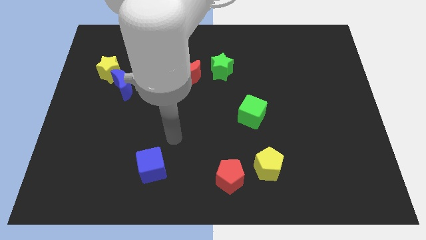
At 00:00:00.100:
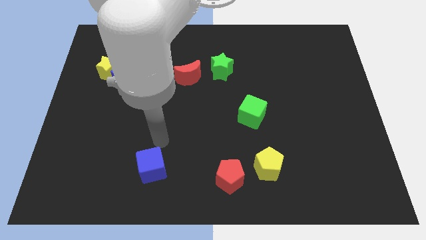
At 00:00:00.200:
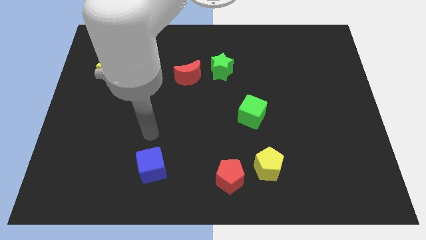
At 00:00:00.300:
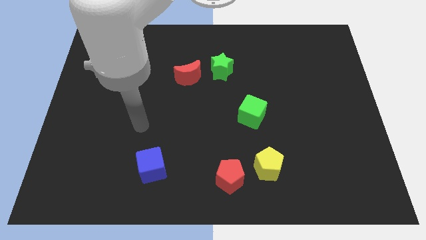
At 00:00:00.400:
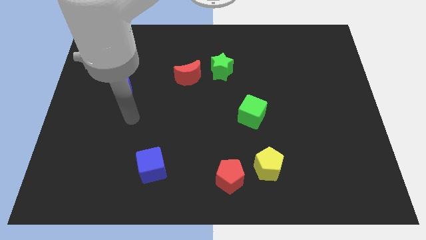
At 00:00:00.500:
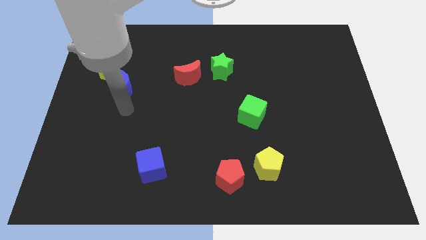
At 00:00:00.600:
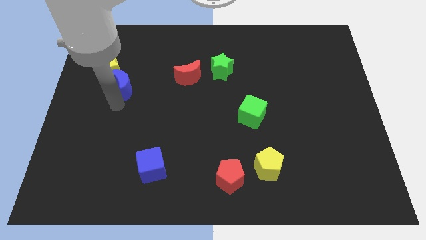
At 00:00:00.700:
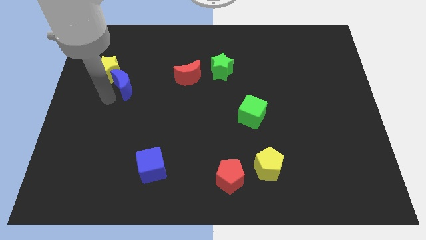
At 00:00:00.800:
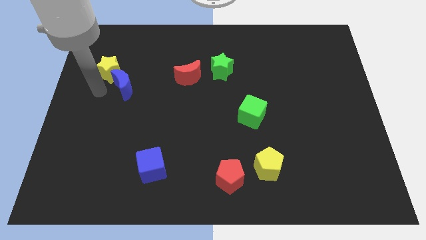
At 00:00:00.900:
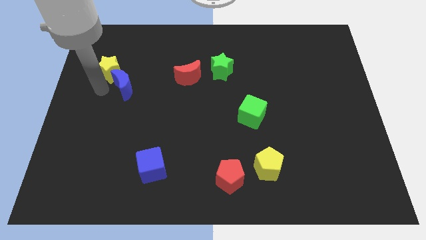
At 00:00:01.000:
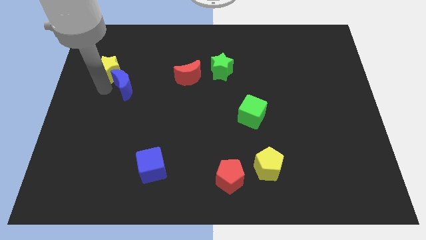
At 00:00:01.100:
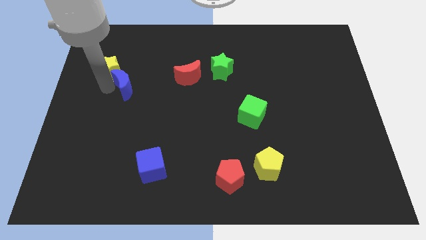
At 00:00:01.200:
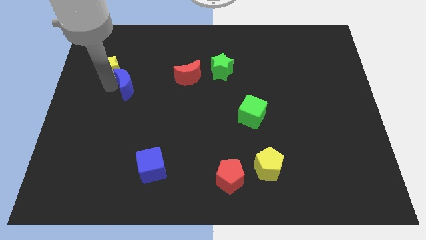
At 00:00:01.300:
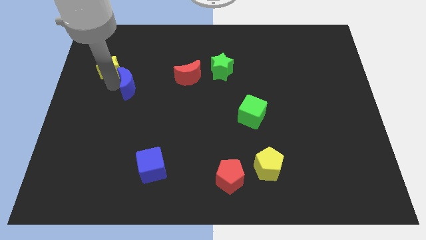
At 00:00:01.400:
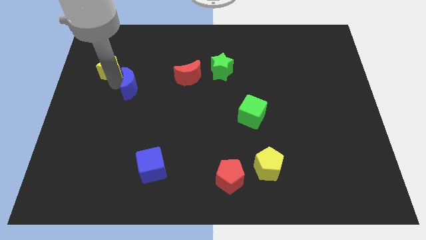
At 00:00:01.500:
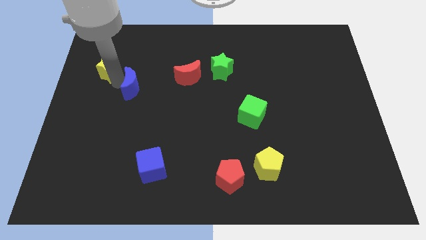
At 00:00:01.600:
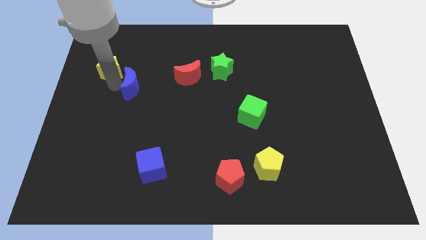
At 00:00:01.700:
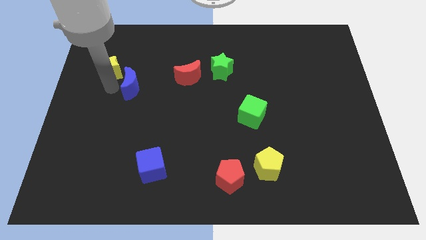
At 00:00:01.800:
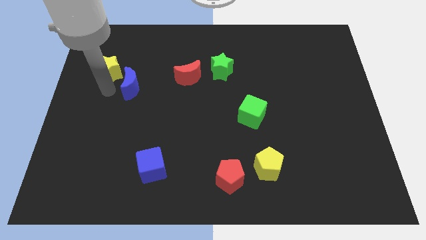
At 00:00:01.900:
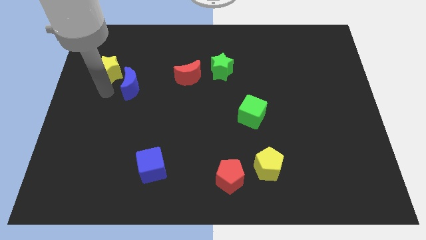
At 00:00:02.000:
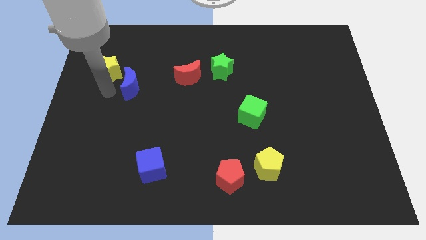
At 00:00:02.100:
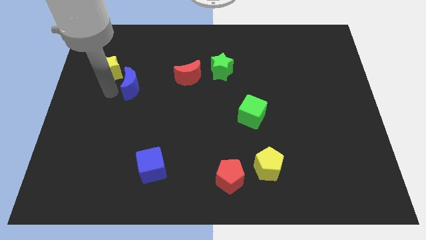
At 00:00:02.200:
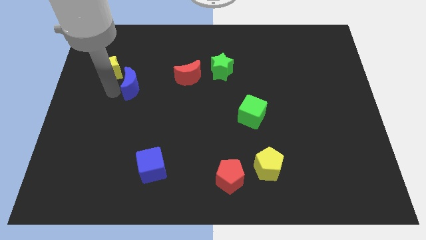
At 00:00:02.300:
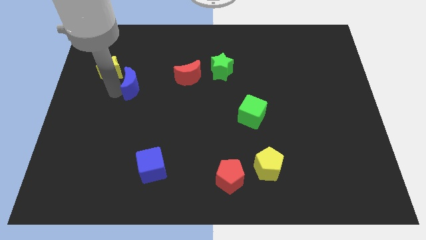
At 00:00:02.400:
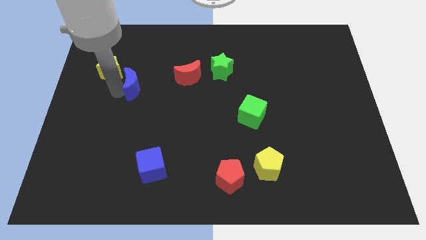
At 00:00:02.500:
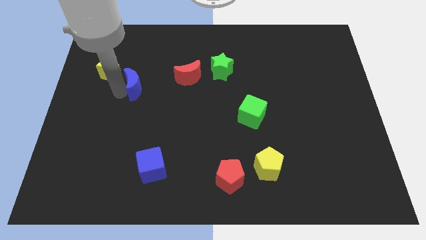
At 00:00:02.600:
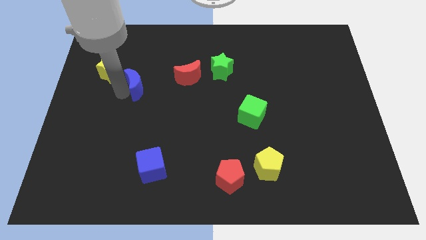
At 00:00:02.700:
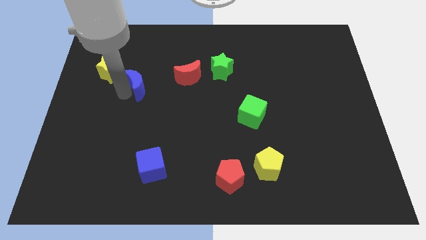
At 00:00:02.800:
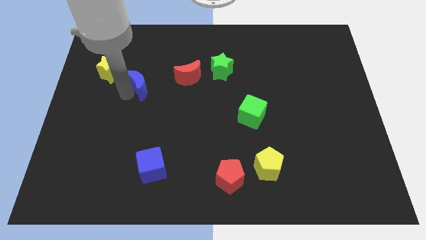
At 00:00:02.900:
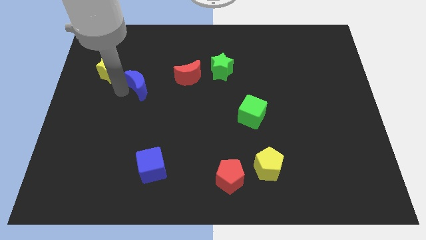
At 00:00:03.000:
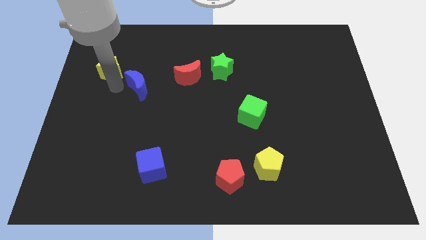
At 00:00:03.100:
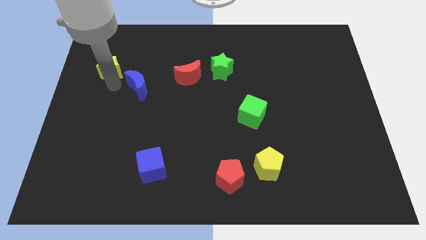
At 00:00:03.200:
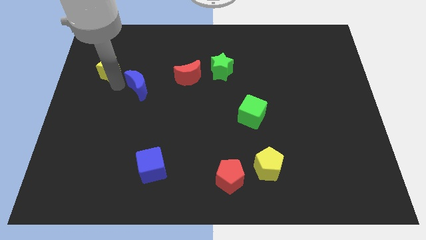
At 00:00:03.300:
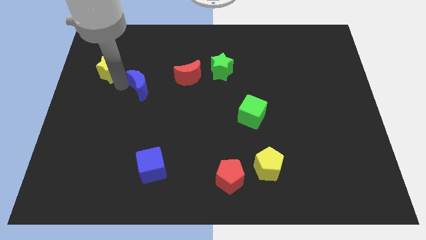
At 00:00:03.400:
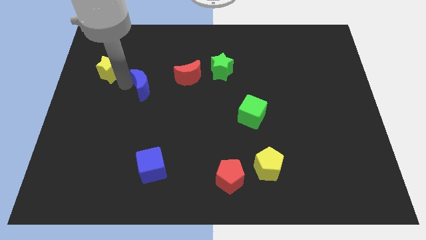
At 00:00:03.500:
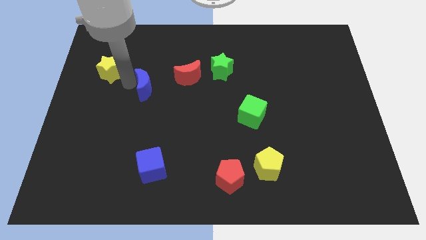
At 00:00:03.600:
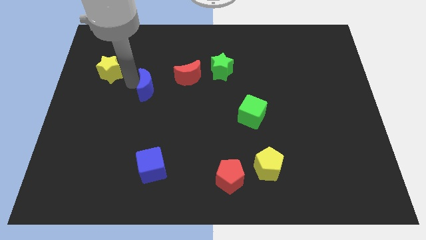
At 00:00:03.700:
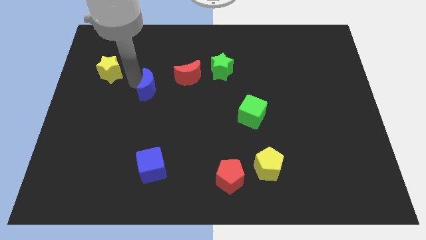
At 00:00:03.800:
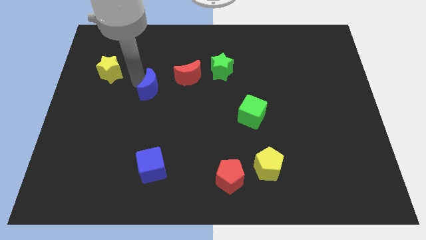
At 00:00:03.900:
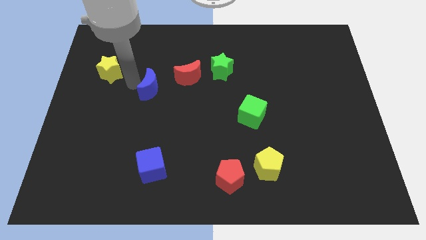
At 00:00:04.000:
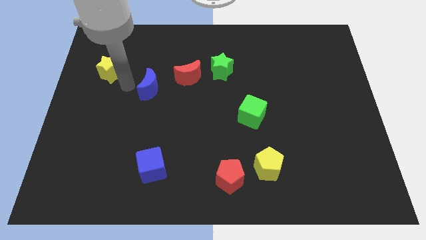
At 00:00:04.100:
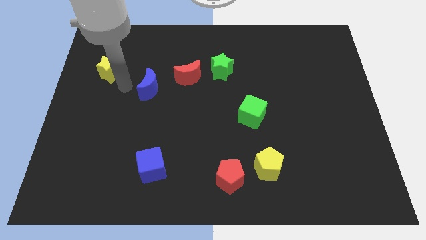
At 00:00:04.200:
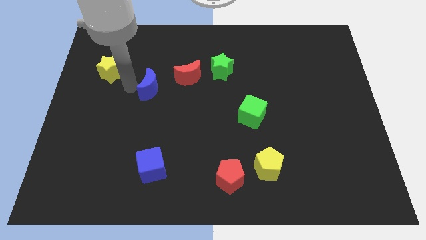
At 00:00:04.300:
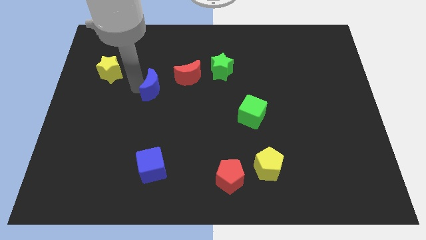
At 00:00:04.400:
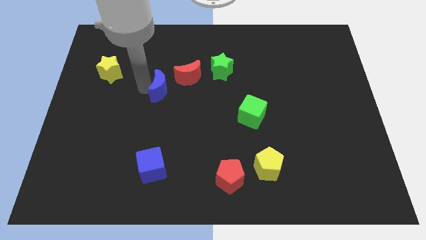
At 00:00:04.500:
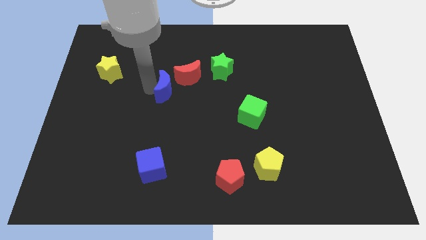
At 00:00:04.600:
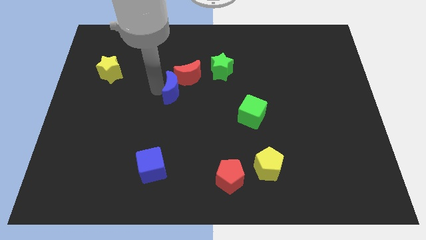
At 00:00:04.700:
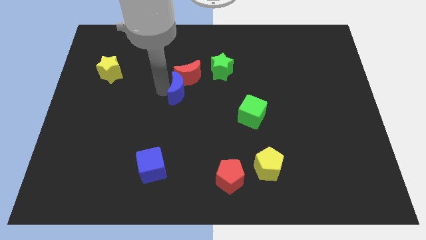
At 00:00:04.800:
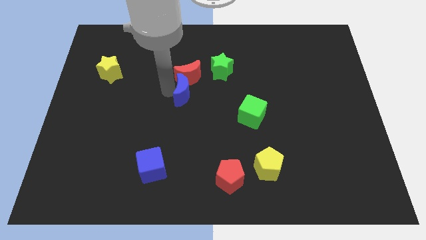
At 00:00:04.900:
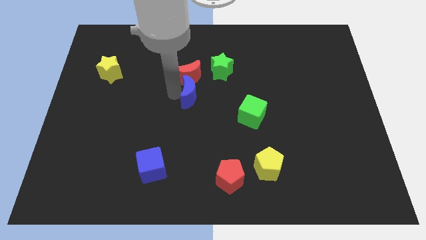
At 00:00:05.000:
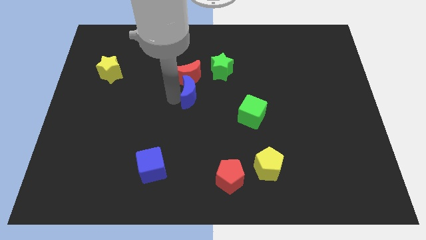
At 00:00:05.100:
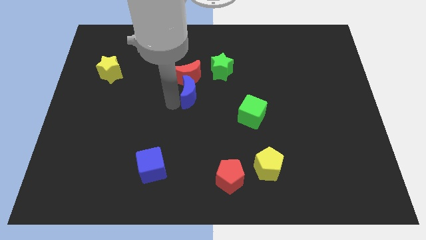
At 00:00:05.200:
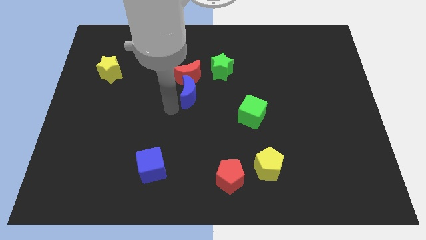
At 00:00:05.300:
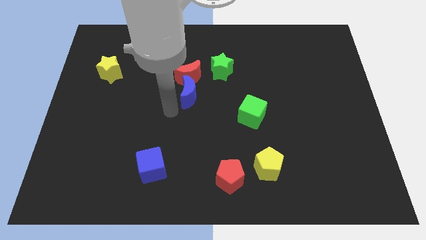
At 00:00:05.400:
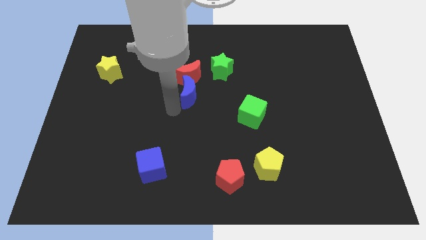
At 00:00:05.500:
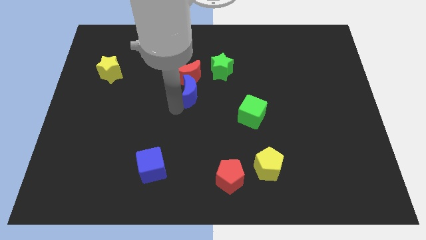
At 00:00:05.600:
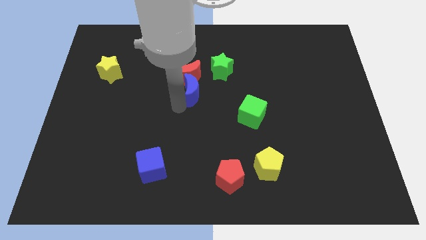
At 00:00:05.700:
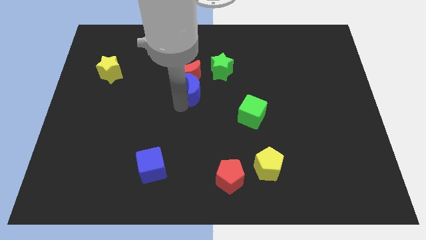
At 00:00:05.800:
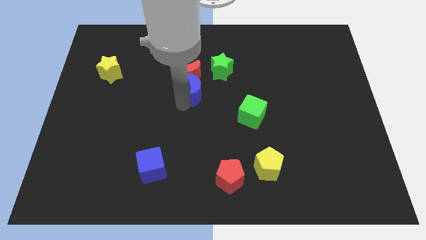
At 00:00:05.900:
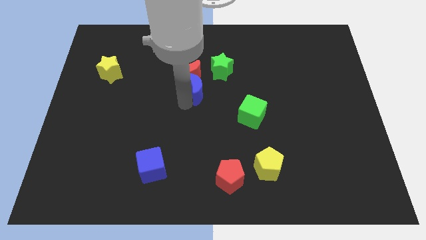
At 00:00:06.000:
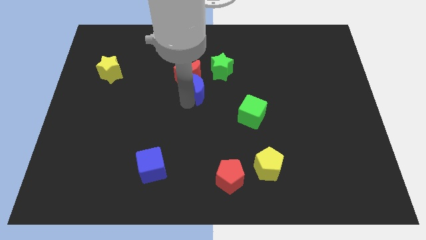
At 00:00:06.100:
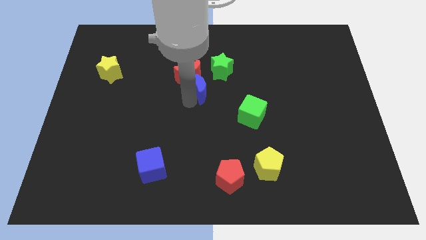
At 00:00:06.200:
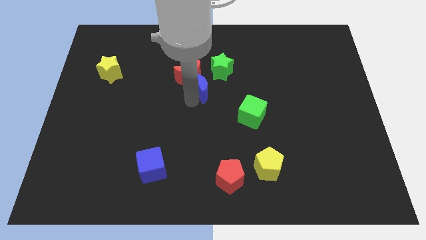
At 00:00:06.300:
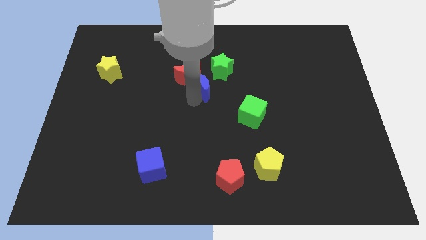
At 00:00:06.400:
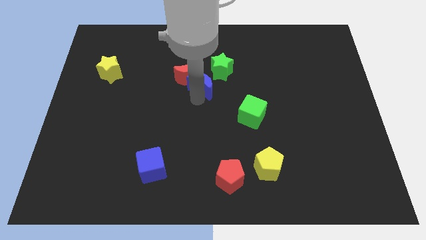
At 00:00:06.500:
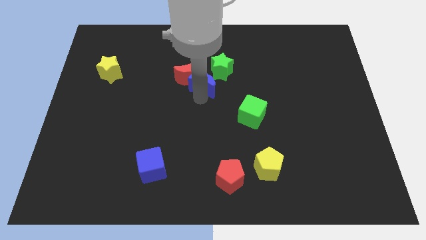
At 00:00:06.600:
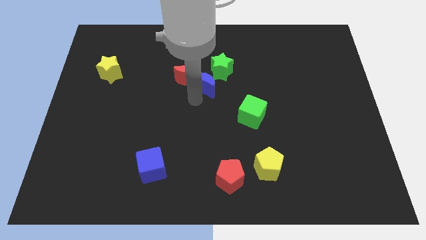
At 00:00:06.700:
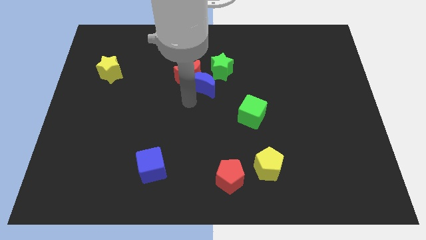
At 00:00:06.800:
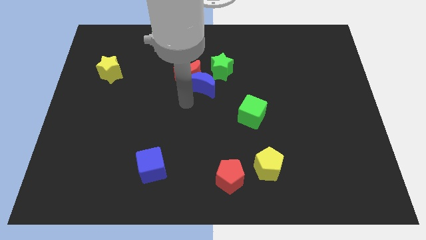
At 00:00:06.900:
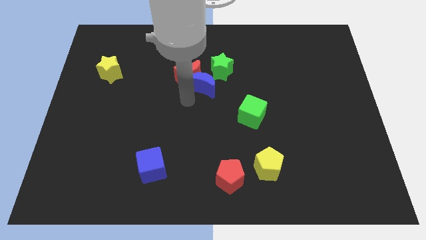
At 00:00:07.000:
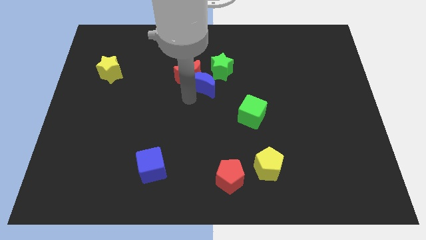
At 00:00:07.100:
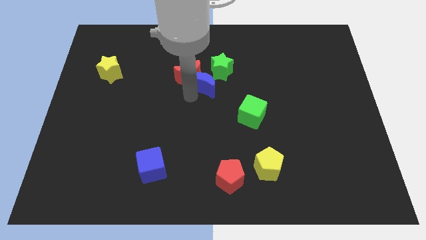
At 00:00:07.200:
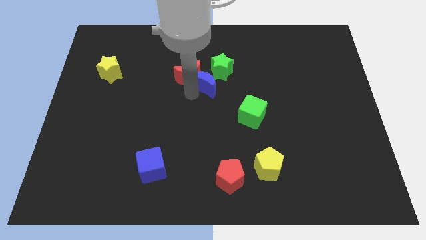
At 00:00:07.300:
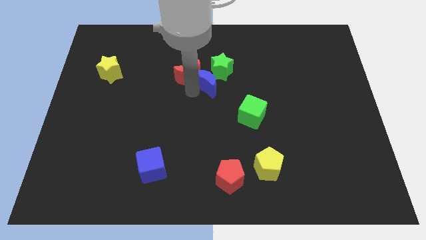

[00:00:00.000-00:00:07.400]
push the blue moon towards the green star
